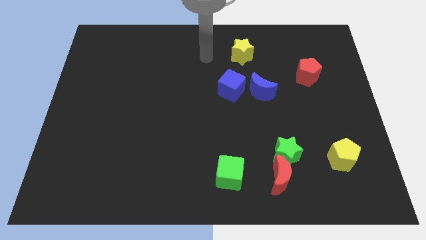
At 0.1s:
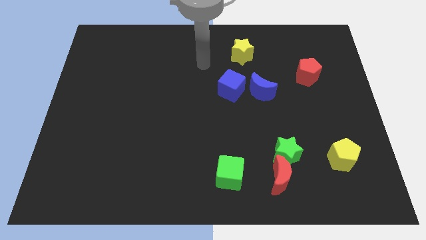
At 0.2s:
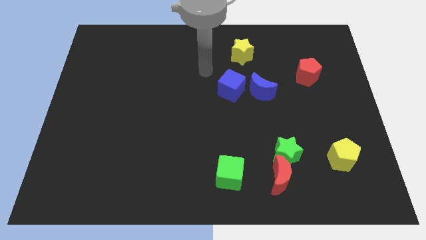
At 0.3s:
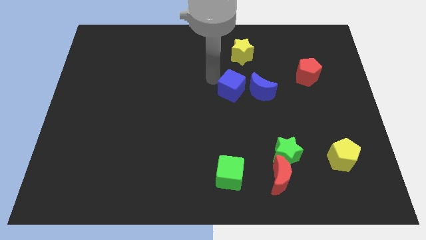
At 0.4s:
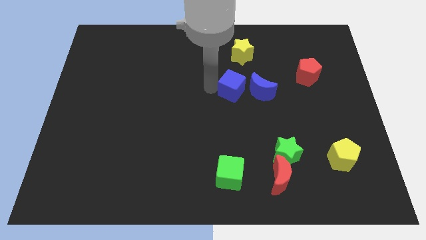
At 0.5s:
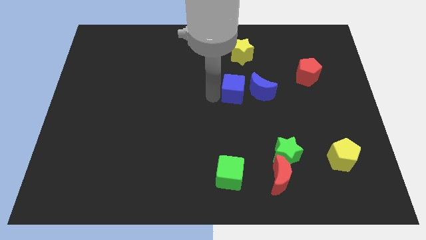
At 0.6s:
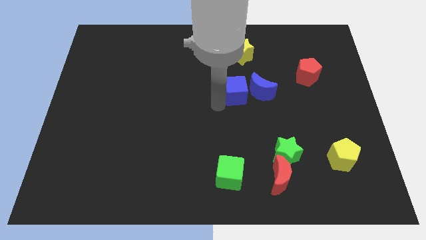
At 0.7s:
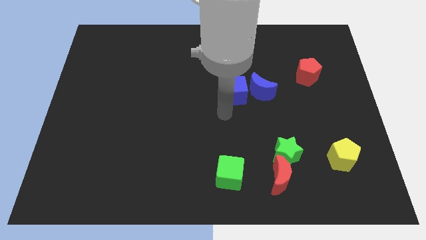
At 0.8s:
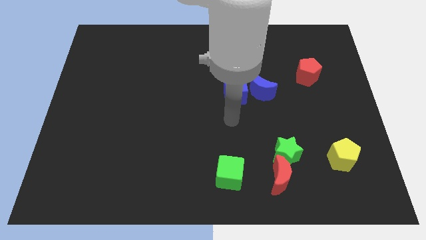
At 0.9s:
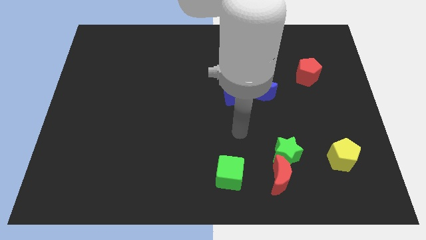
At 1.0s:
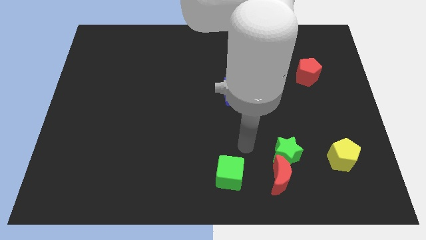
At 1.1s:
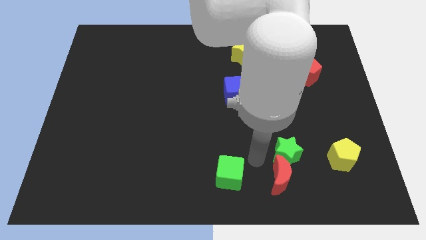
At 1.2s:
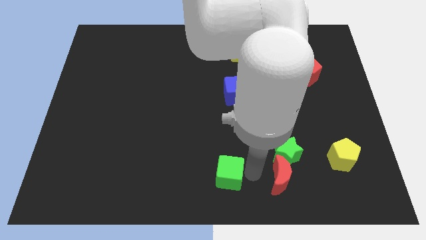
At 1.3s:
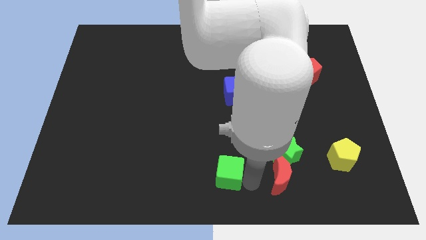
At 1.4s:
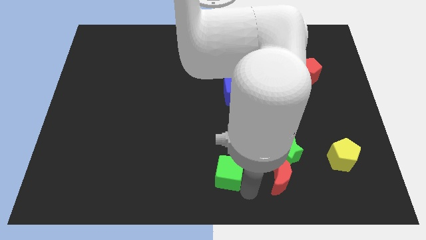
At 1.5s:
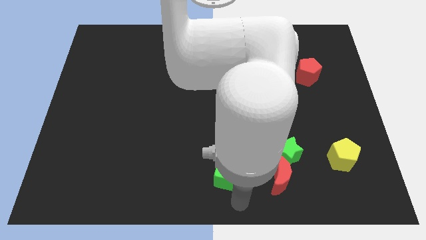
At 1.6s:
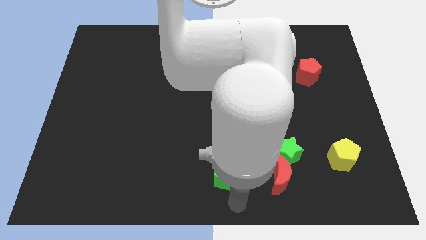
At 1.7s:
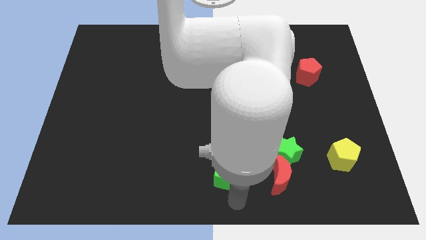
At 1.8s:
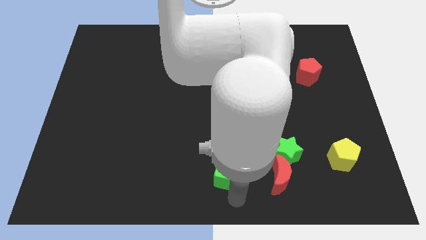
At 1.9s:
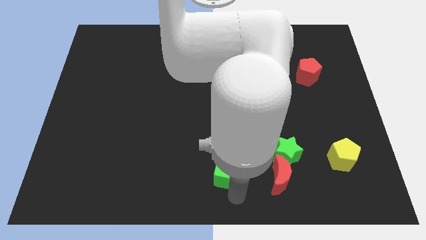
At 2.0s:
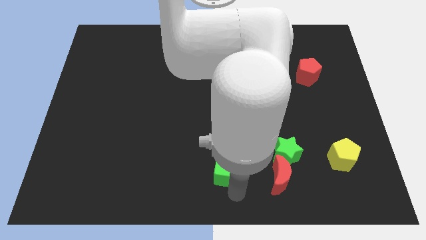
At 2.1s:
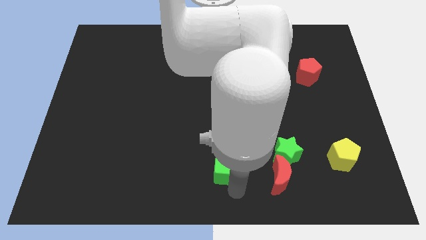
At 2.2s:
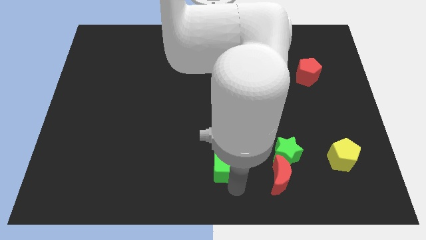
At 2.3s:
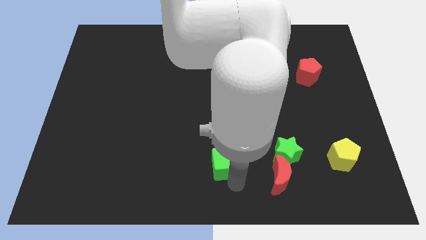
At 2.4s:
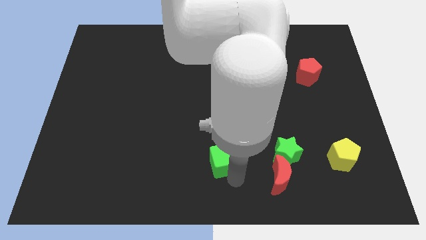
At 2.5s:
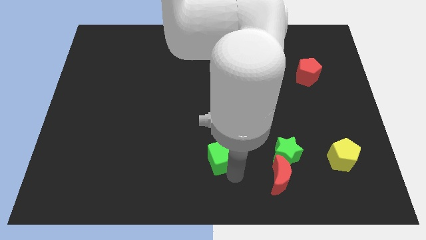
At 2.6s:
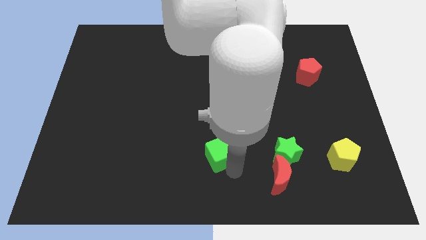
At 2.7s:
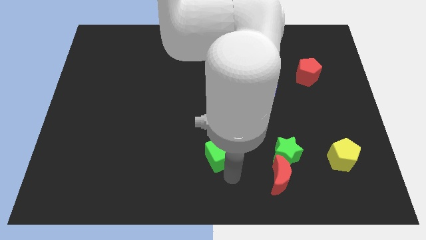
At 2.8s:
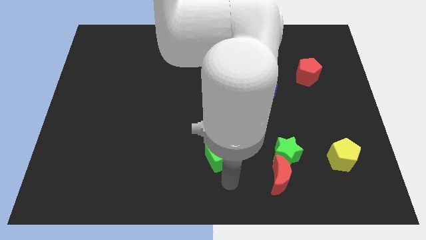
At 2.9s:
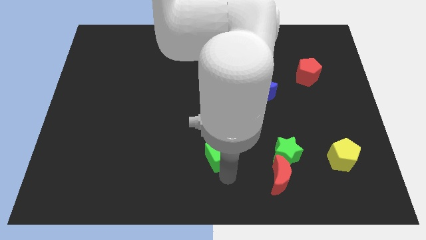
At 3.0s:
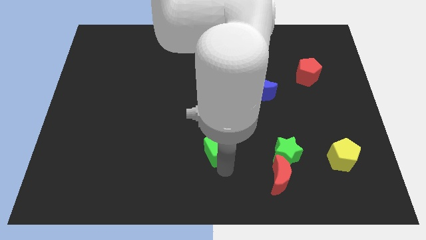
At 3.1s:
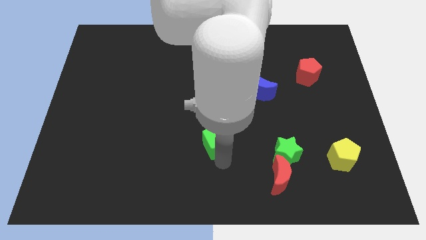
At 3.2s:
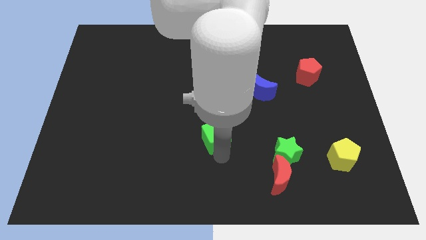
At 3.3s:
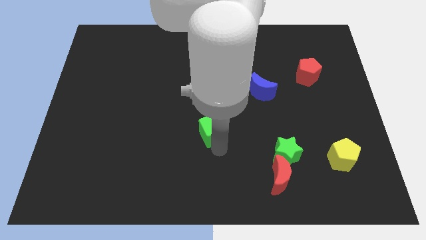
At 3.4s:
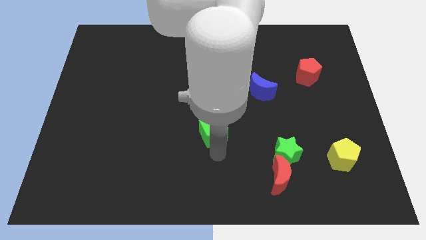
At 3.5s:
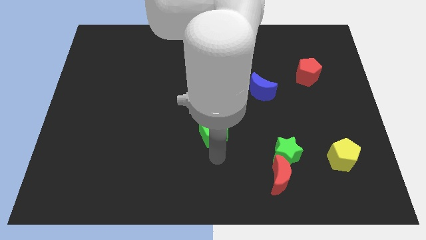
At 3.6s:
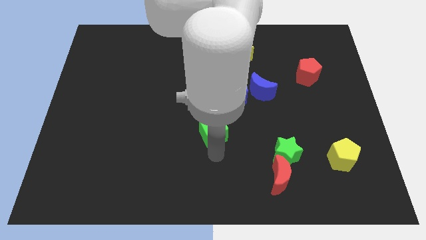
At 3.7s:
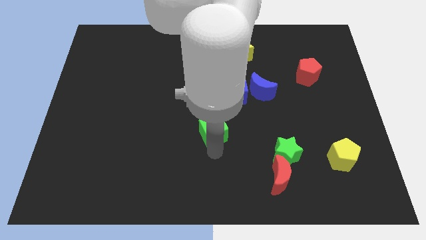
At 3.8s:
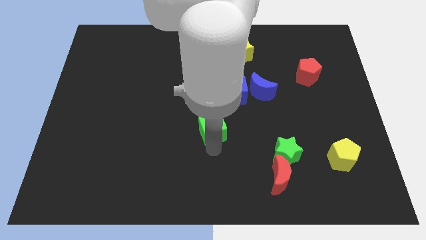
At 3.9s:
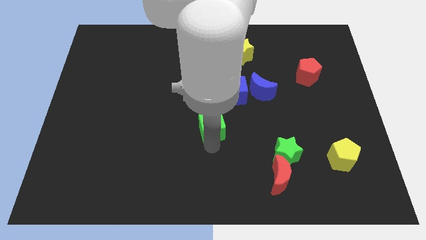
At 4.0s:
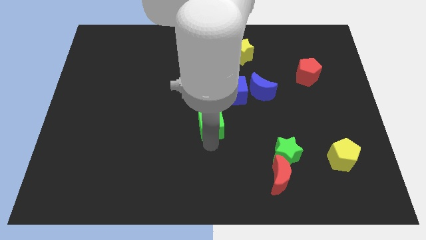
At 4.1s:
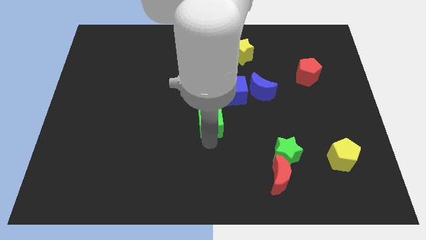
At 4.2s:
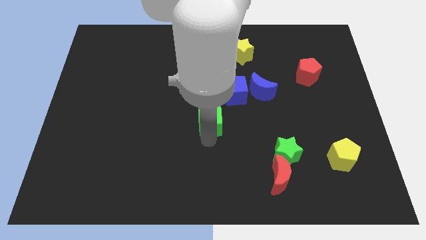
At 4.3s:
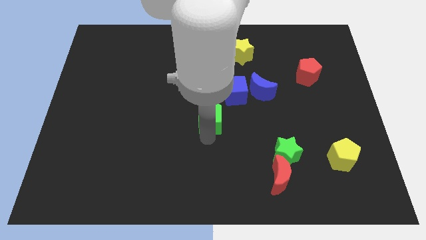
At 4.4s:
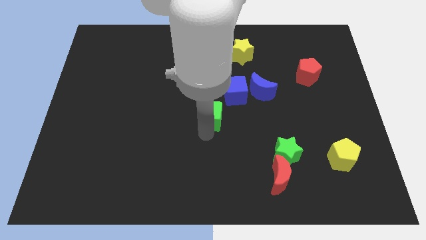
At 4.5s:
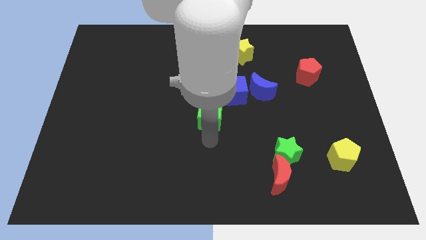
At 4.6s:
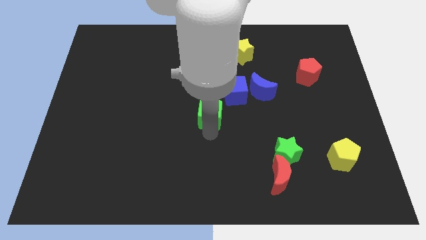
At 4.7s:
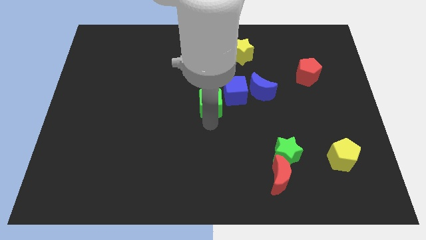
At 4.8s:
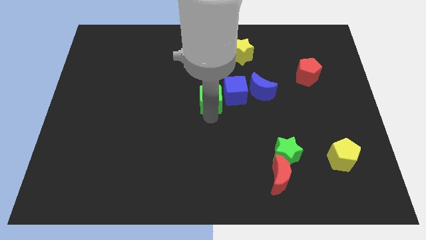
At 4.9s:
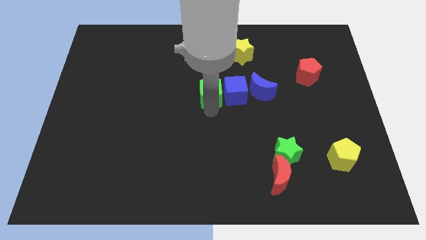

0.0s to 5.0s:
push the green cube upwards

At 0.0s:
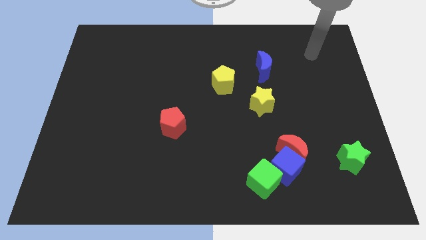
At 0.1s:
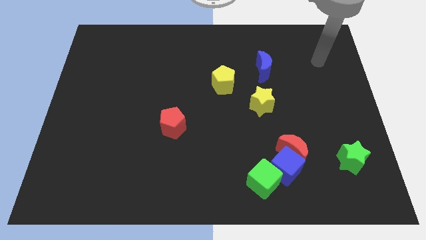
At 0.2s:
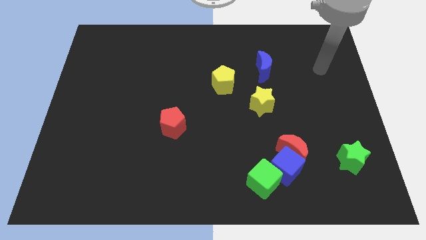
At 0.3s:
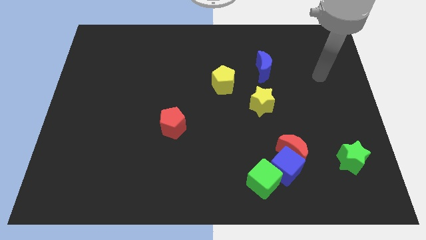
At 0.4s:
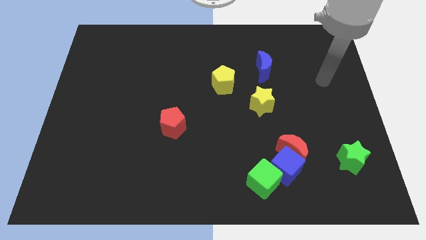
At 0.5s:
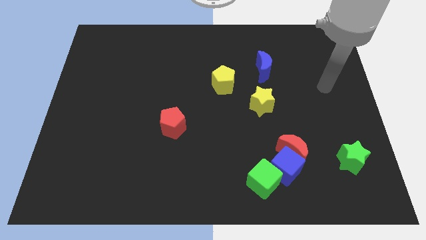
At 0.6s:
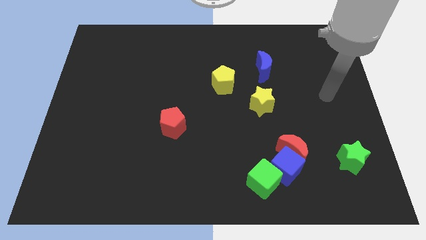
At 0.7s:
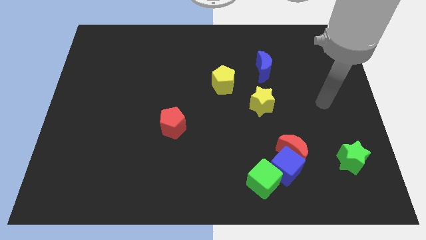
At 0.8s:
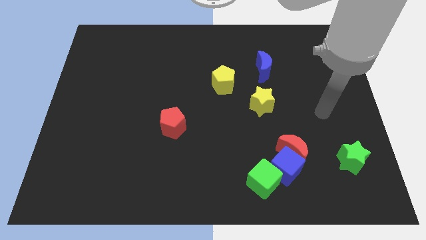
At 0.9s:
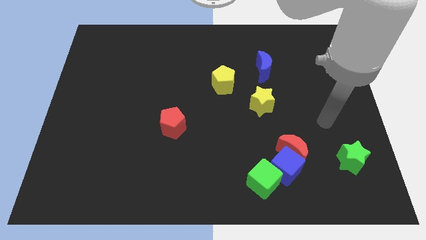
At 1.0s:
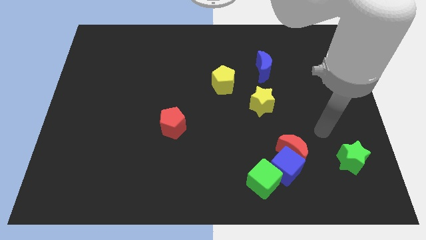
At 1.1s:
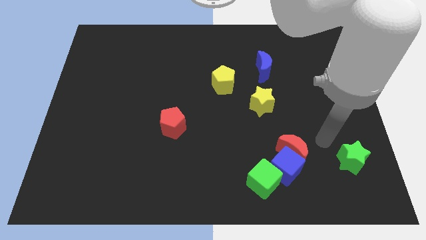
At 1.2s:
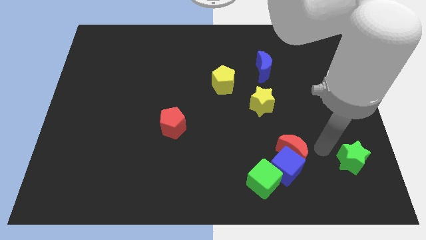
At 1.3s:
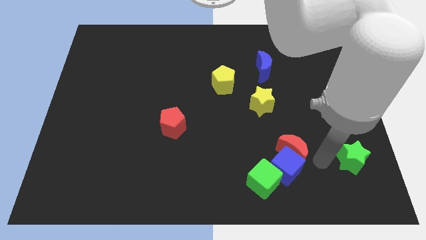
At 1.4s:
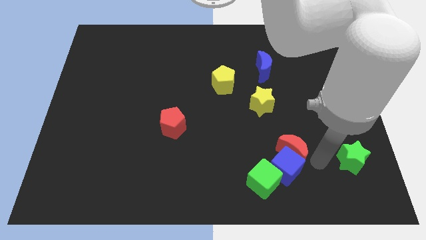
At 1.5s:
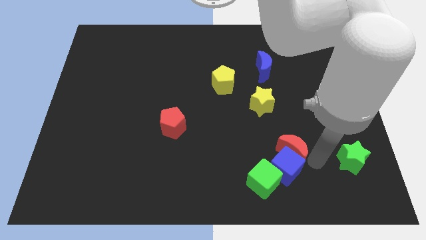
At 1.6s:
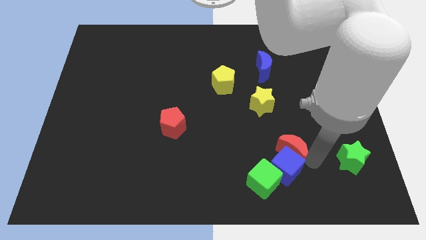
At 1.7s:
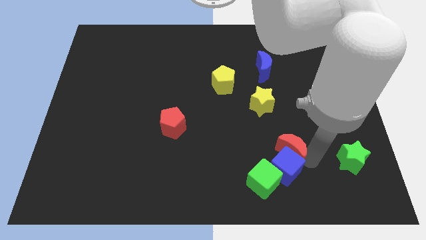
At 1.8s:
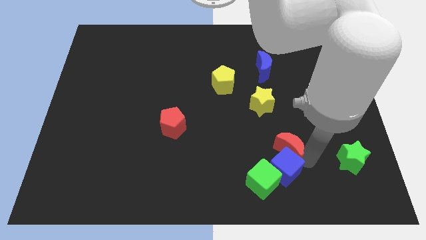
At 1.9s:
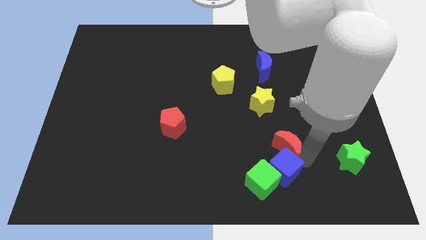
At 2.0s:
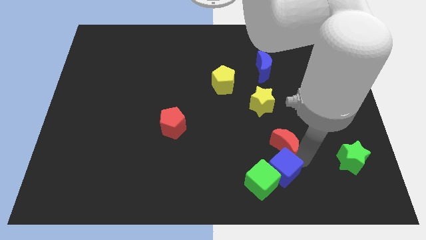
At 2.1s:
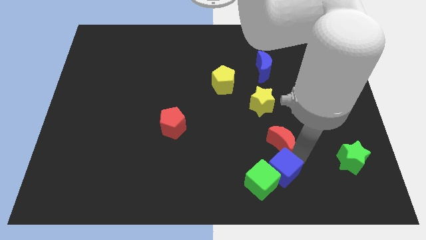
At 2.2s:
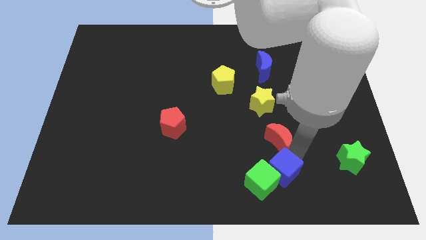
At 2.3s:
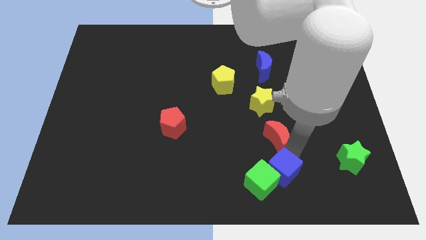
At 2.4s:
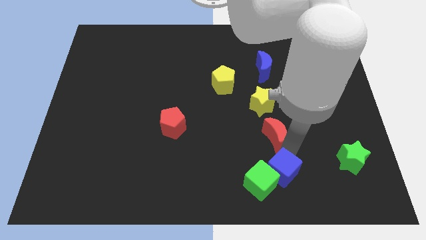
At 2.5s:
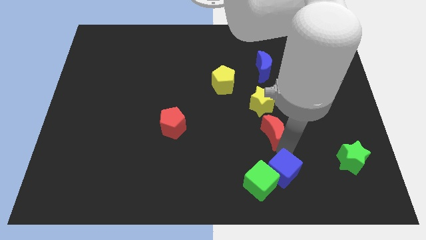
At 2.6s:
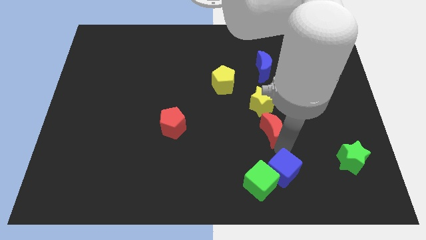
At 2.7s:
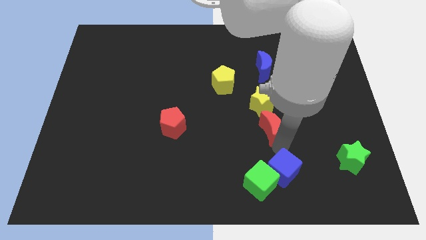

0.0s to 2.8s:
slide the red moon a bit upwards and then to the left

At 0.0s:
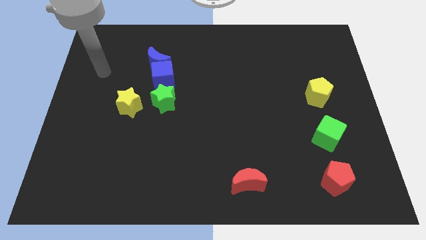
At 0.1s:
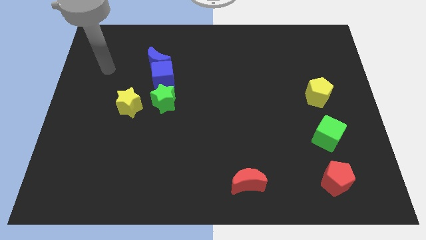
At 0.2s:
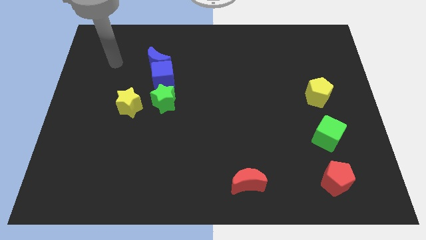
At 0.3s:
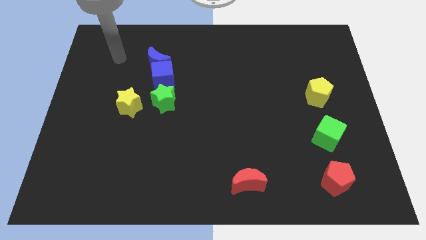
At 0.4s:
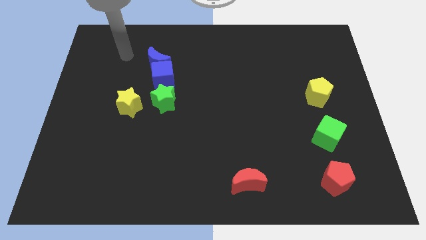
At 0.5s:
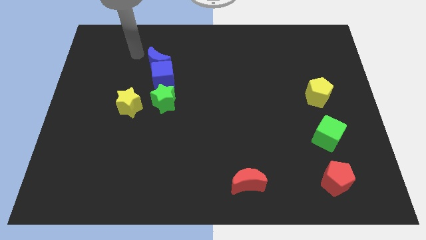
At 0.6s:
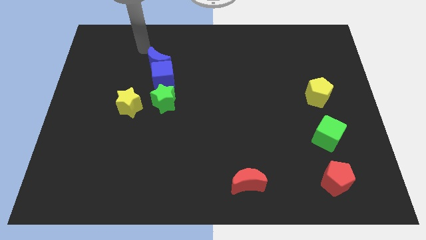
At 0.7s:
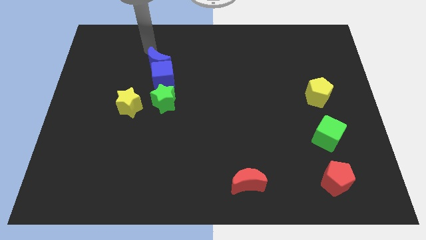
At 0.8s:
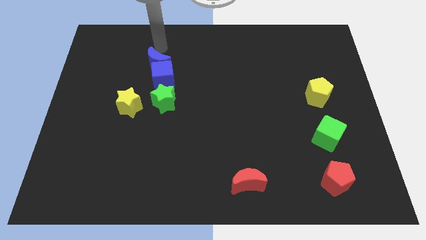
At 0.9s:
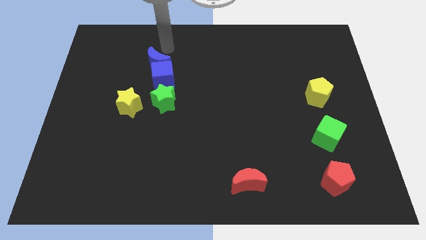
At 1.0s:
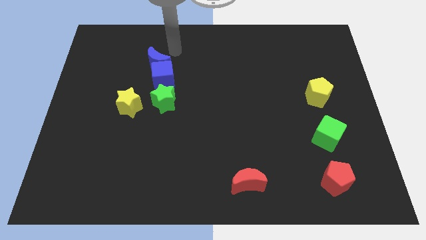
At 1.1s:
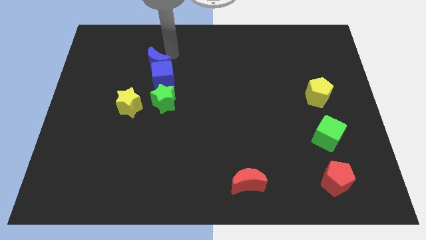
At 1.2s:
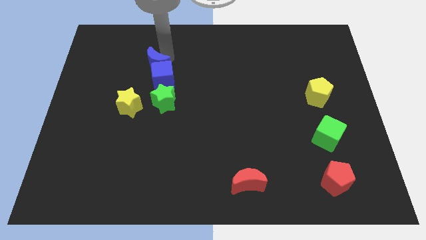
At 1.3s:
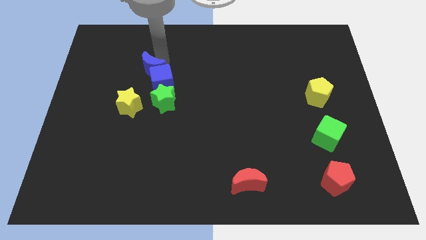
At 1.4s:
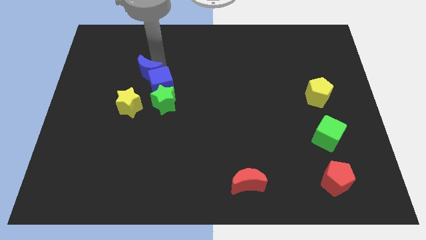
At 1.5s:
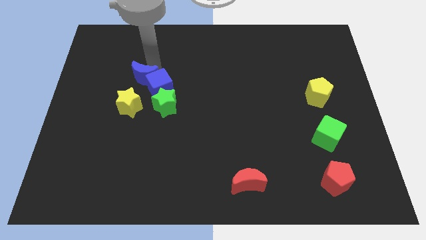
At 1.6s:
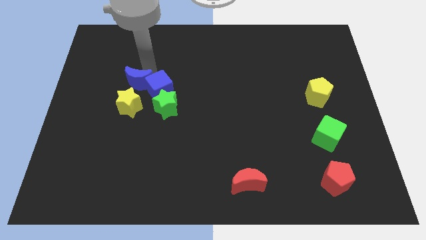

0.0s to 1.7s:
slide the blue moon downwards and to the left diagonally a bit
